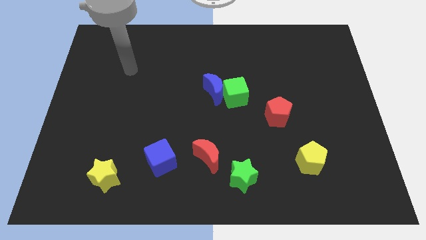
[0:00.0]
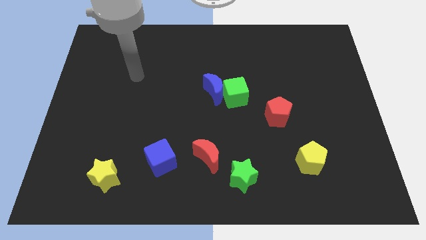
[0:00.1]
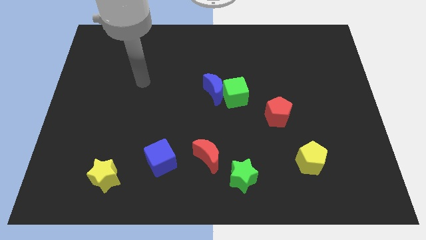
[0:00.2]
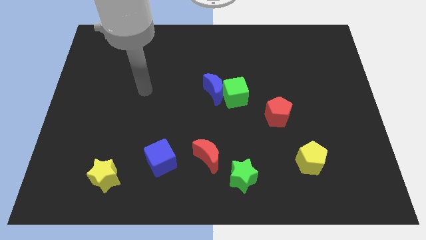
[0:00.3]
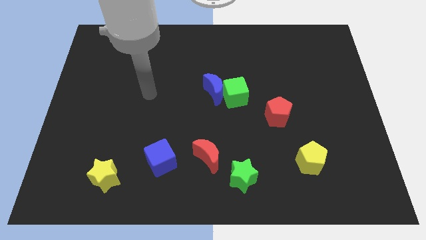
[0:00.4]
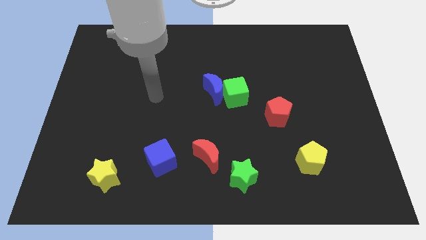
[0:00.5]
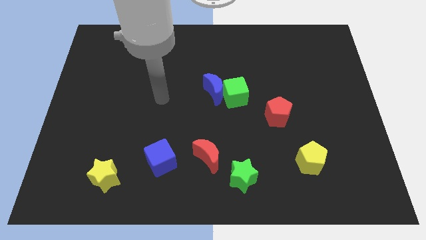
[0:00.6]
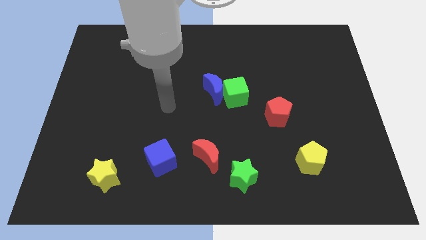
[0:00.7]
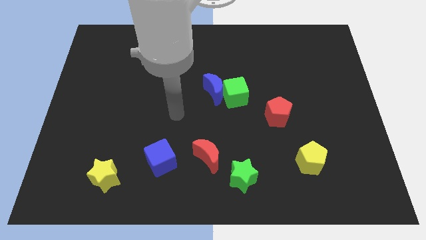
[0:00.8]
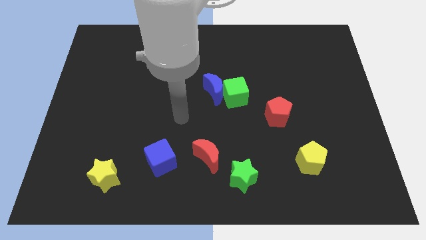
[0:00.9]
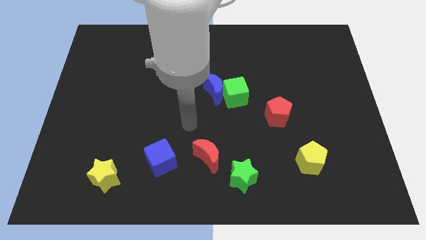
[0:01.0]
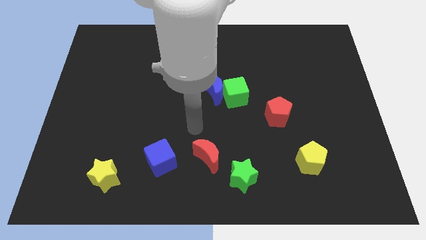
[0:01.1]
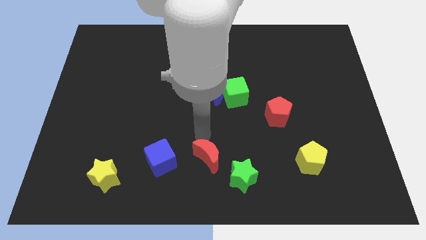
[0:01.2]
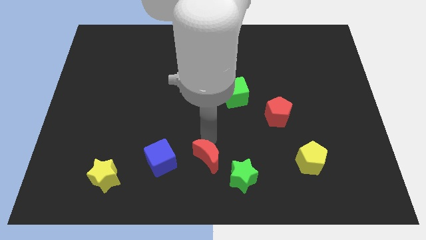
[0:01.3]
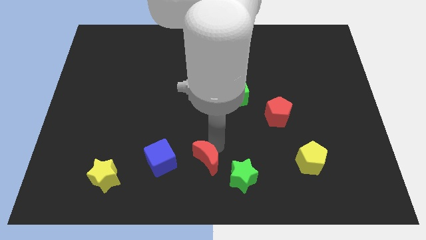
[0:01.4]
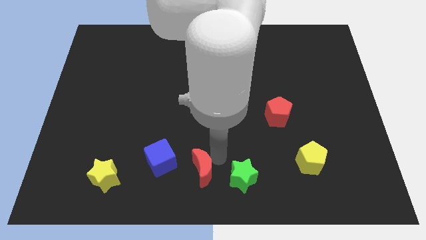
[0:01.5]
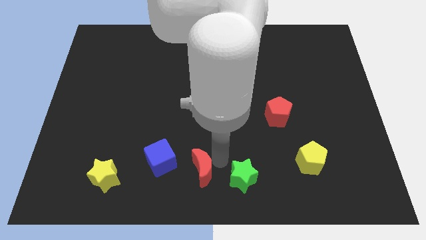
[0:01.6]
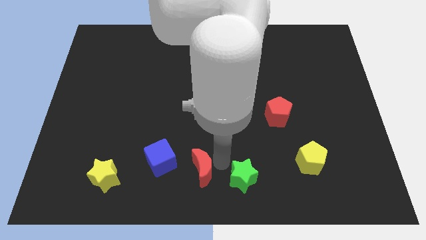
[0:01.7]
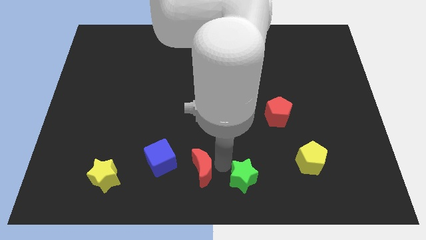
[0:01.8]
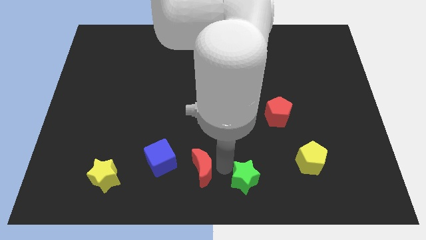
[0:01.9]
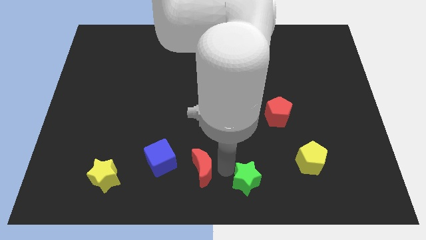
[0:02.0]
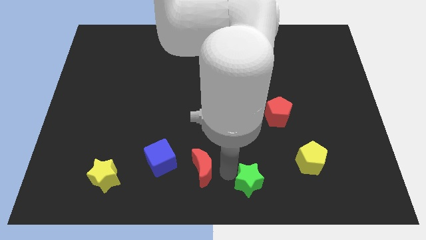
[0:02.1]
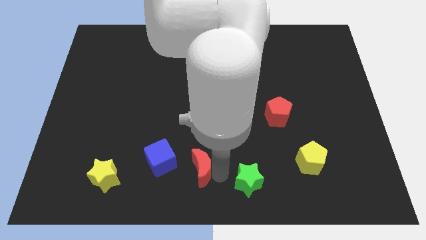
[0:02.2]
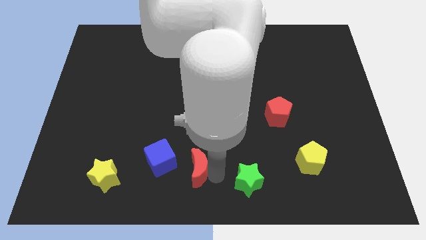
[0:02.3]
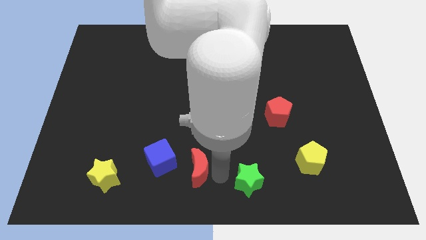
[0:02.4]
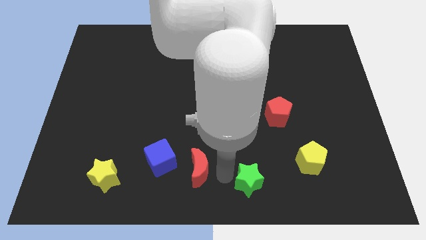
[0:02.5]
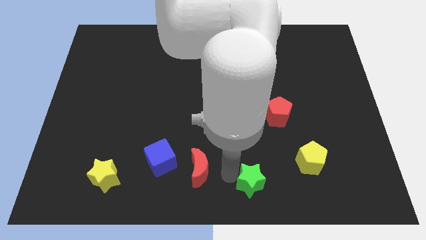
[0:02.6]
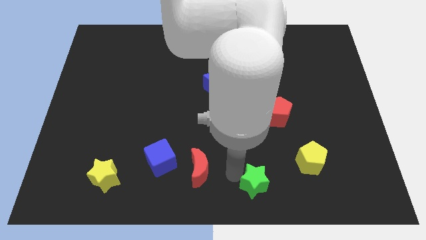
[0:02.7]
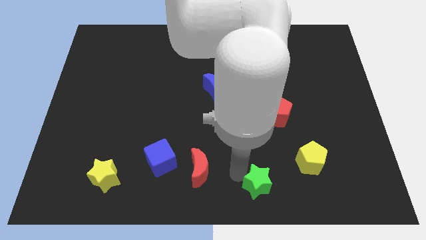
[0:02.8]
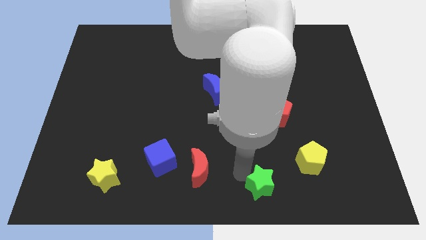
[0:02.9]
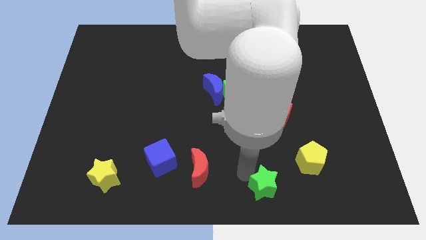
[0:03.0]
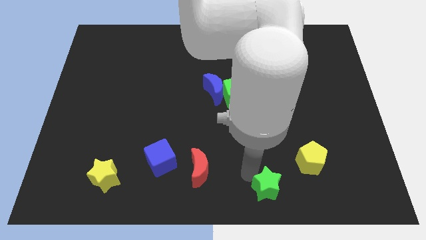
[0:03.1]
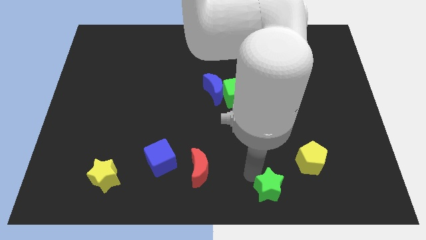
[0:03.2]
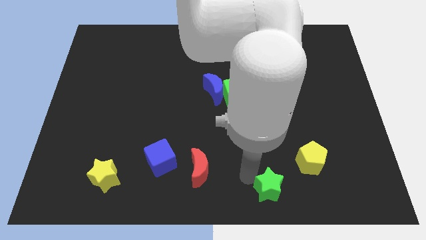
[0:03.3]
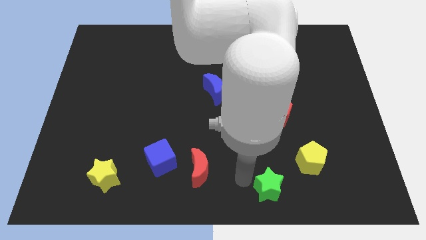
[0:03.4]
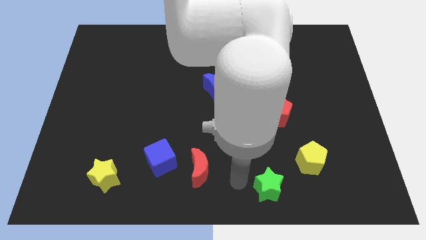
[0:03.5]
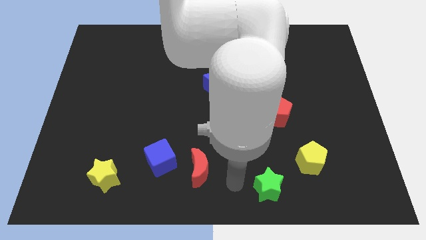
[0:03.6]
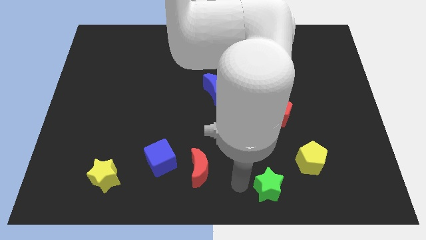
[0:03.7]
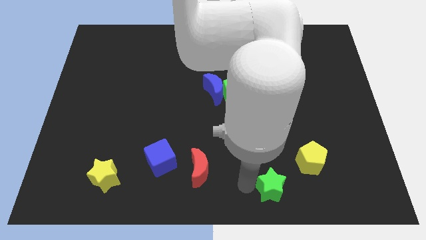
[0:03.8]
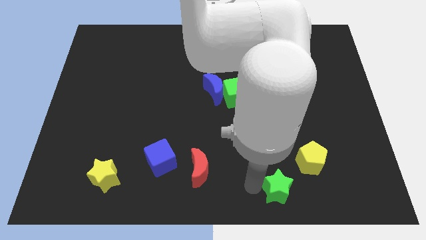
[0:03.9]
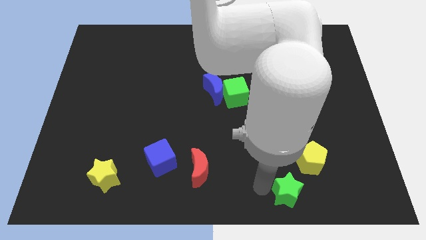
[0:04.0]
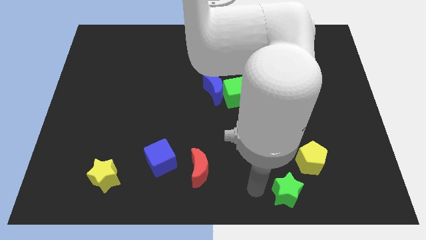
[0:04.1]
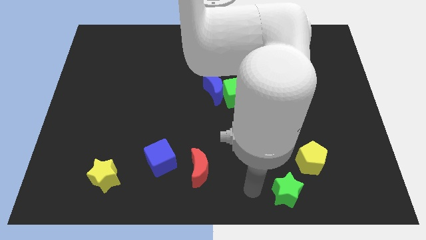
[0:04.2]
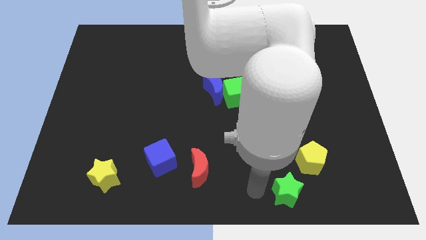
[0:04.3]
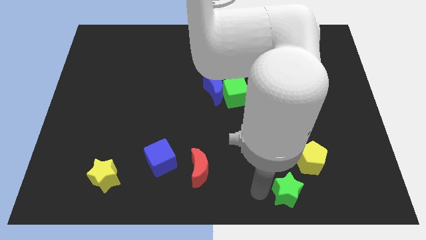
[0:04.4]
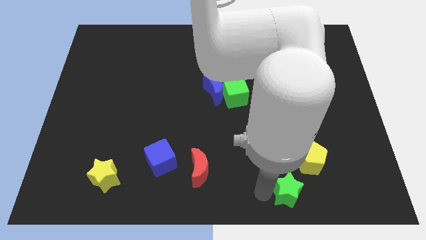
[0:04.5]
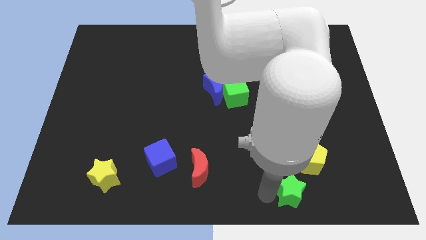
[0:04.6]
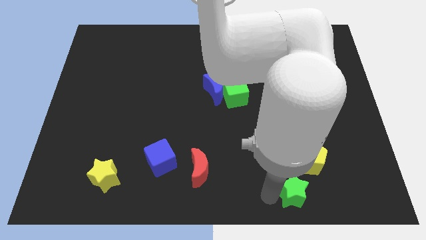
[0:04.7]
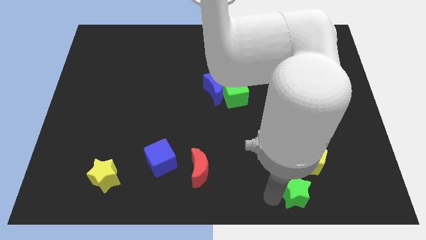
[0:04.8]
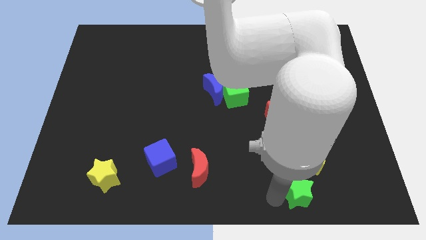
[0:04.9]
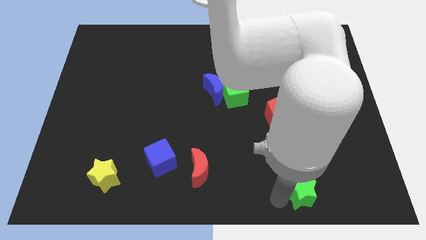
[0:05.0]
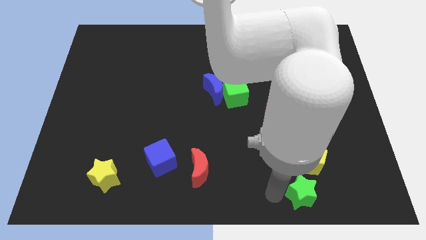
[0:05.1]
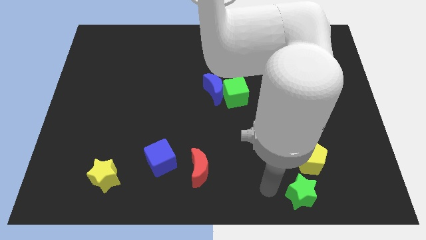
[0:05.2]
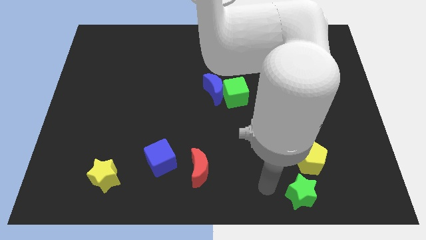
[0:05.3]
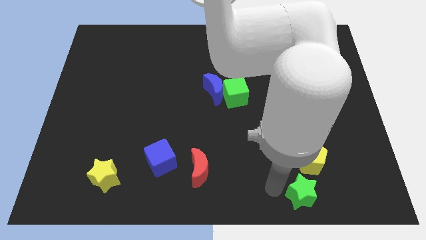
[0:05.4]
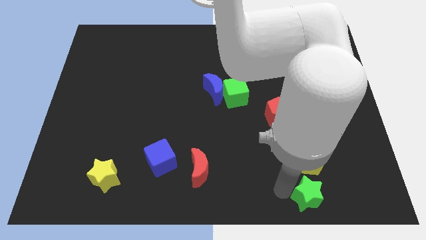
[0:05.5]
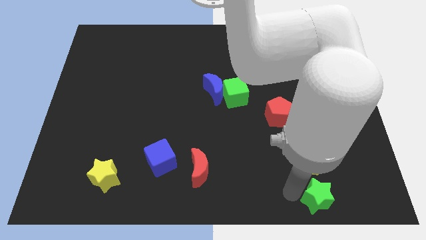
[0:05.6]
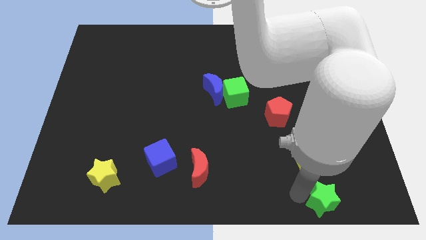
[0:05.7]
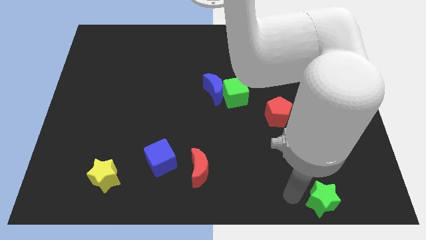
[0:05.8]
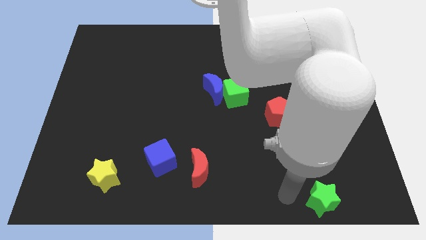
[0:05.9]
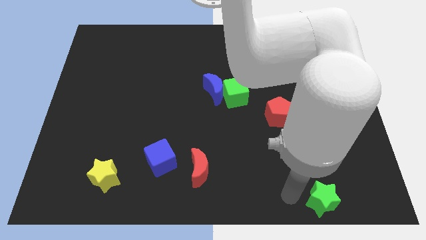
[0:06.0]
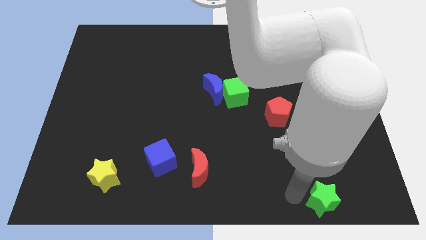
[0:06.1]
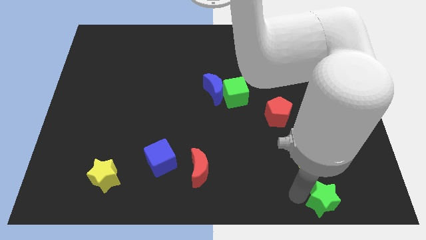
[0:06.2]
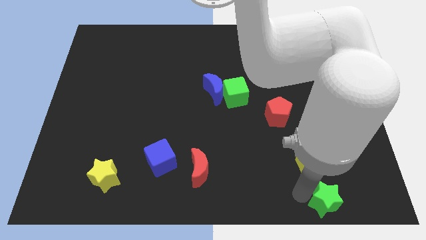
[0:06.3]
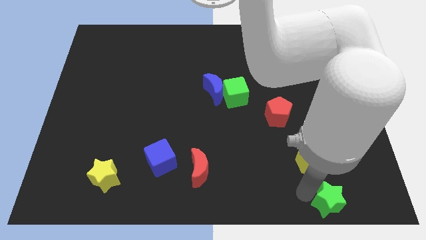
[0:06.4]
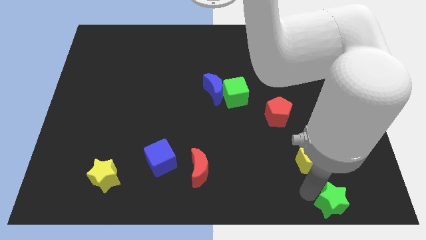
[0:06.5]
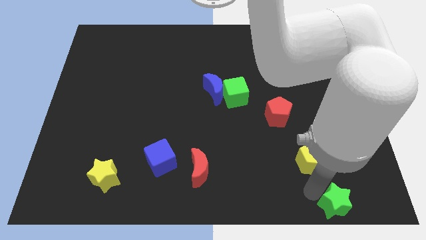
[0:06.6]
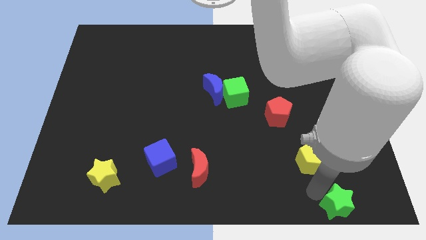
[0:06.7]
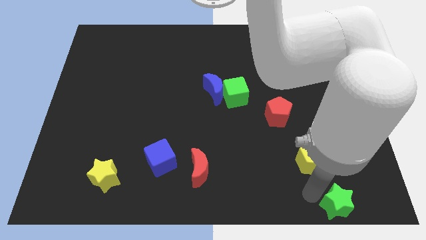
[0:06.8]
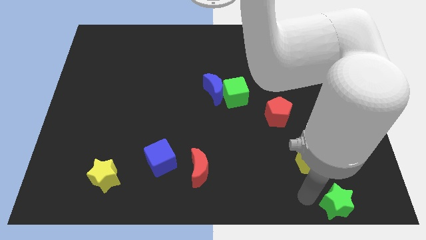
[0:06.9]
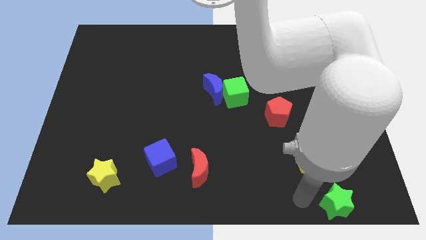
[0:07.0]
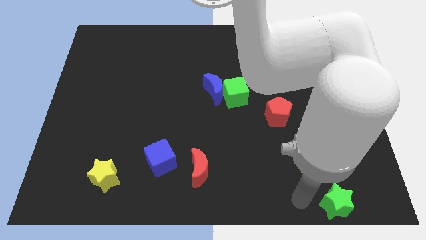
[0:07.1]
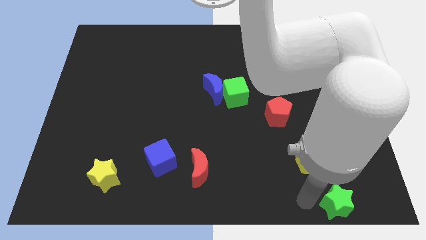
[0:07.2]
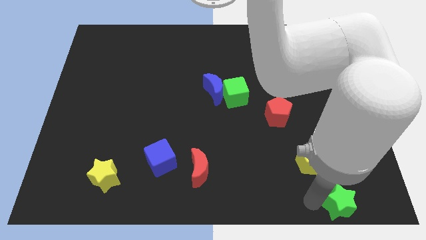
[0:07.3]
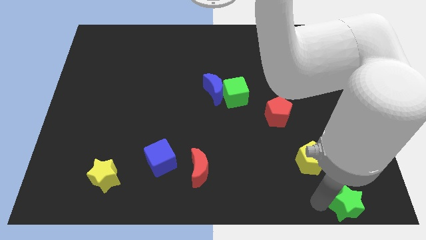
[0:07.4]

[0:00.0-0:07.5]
slide the green star to the bottom right corner
